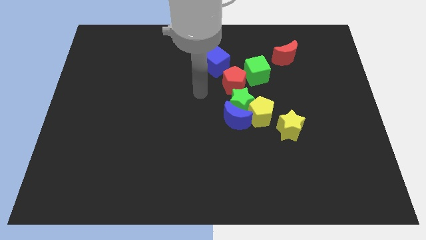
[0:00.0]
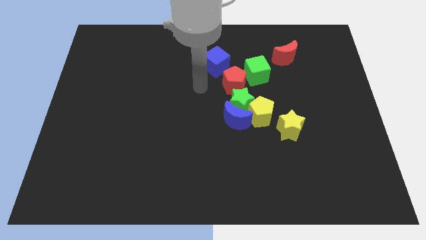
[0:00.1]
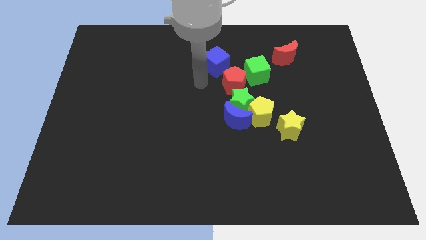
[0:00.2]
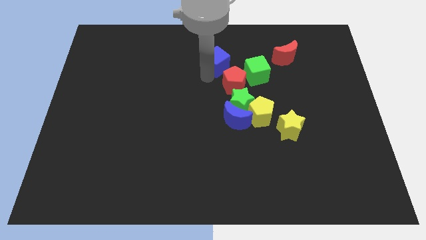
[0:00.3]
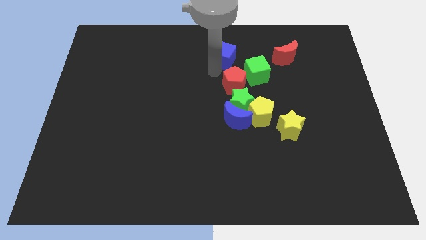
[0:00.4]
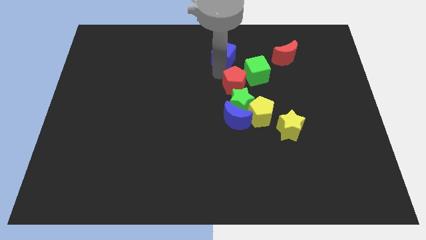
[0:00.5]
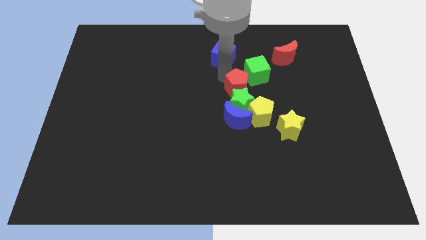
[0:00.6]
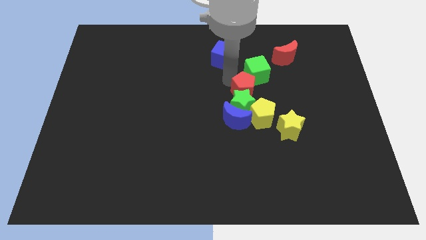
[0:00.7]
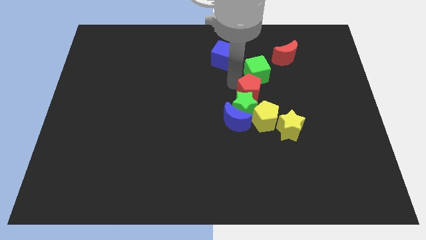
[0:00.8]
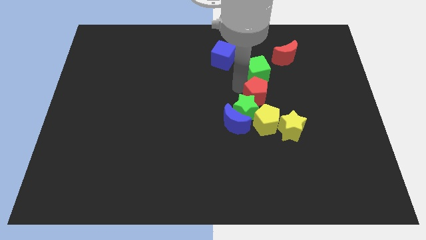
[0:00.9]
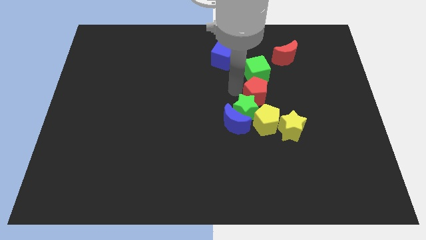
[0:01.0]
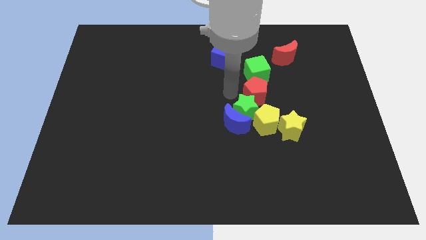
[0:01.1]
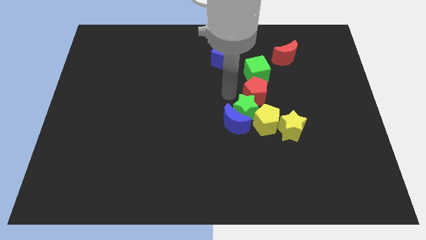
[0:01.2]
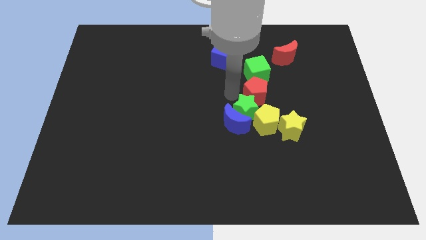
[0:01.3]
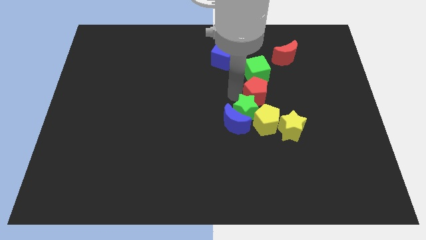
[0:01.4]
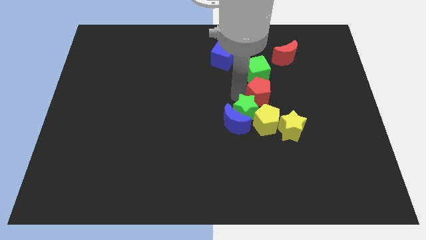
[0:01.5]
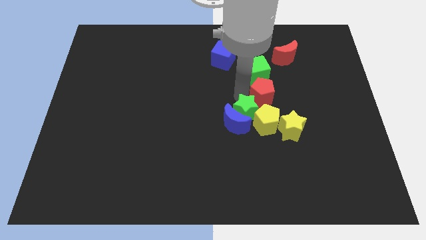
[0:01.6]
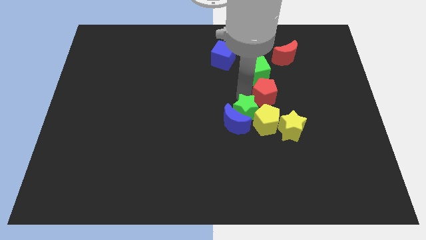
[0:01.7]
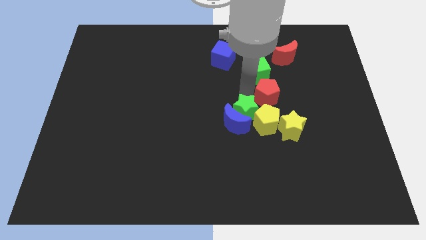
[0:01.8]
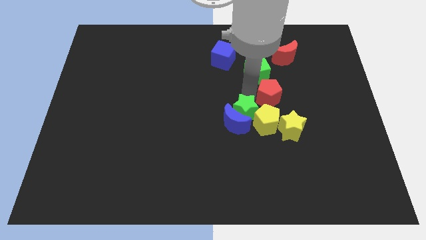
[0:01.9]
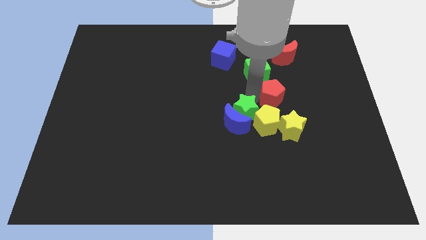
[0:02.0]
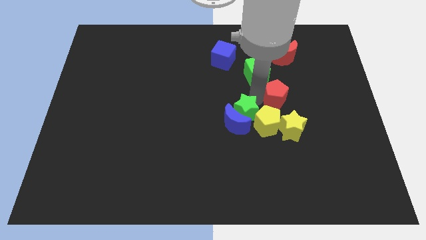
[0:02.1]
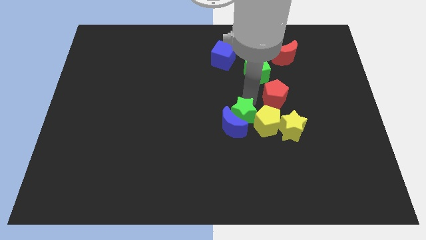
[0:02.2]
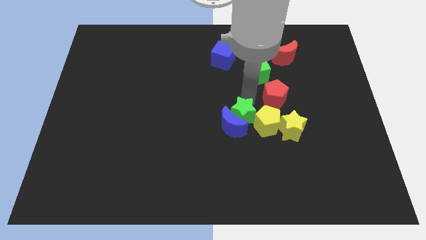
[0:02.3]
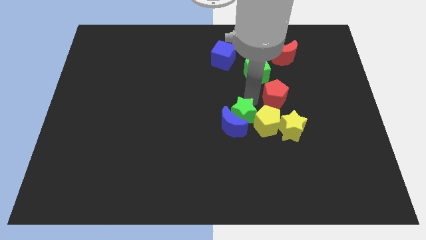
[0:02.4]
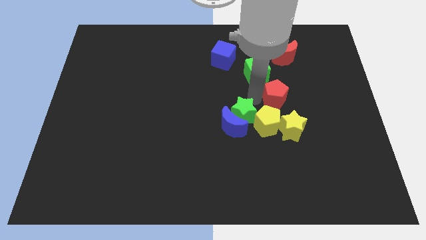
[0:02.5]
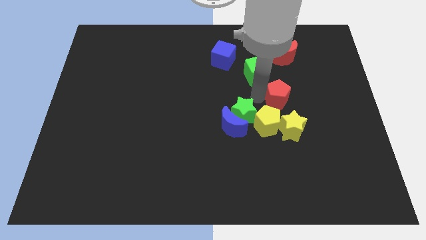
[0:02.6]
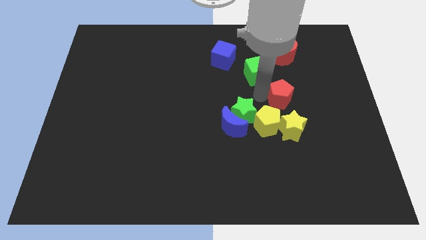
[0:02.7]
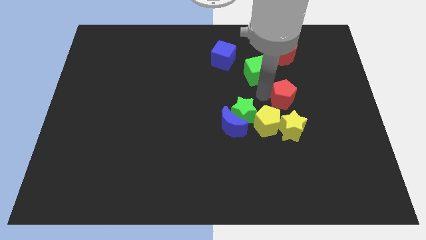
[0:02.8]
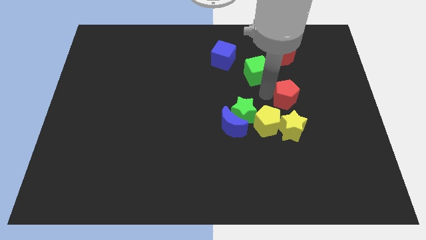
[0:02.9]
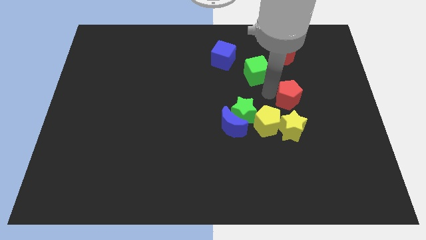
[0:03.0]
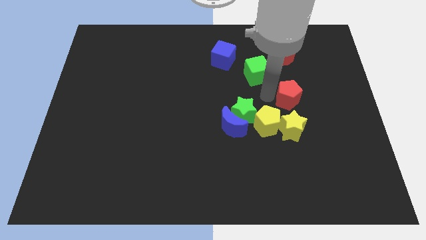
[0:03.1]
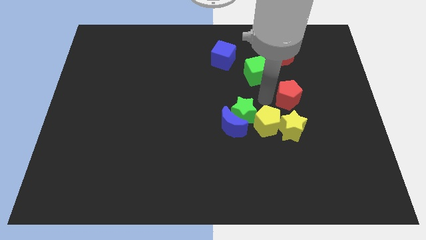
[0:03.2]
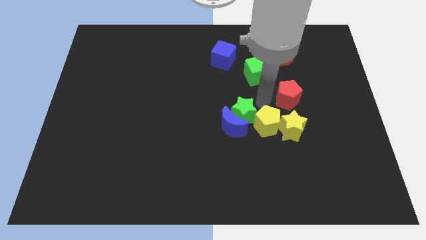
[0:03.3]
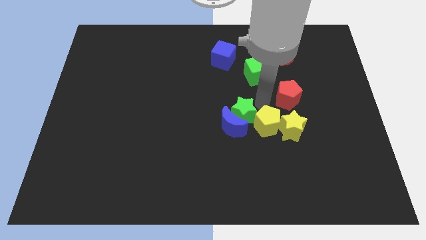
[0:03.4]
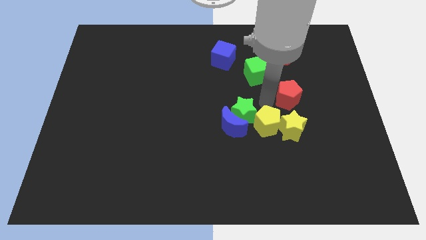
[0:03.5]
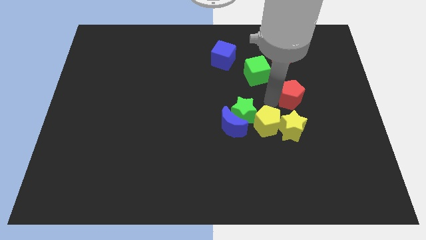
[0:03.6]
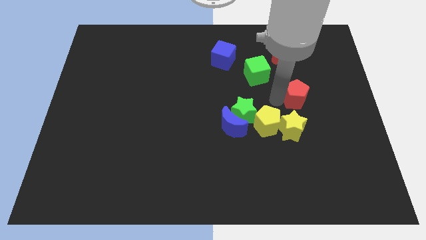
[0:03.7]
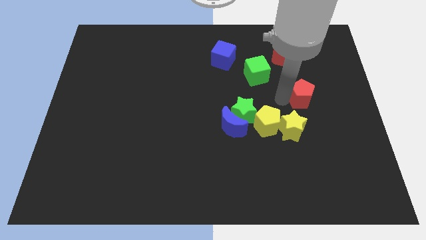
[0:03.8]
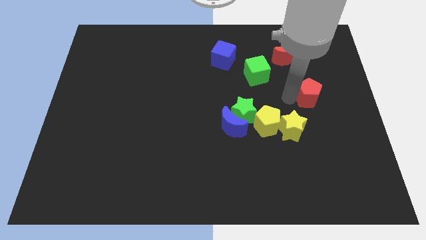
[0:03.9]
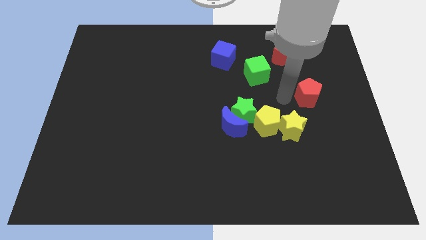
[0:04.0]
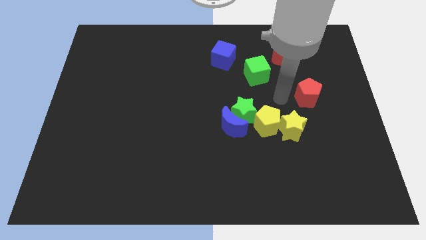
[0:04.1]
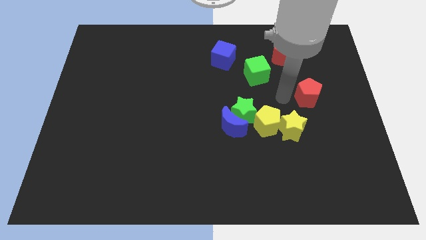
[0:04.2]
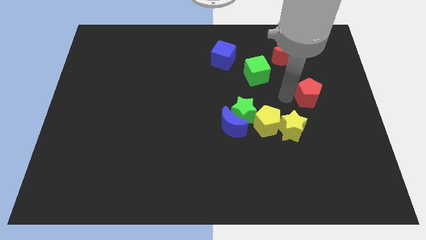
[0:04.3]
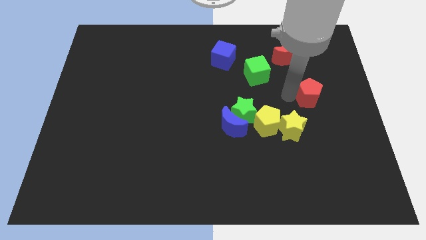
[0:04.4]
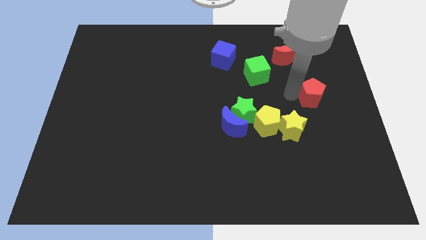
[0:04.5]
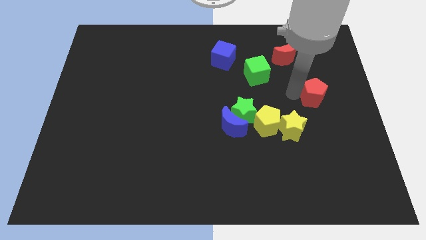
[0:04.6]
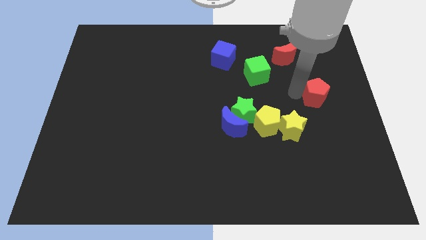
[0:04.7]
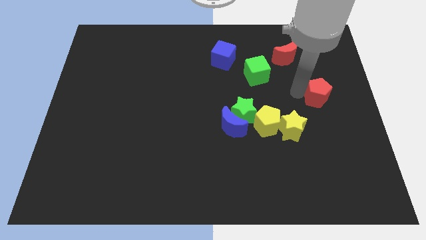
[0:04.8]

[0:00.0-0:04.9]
slide the red pentagon to the center right

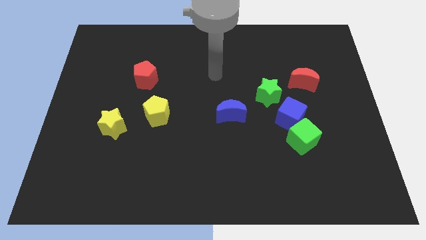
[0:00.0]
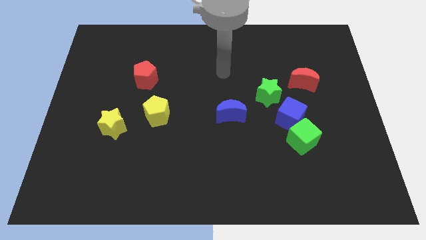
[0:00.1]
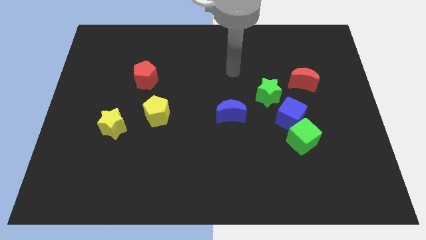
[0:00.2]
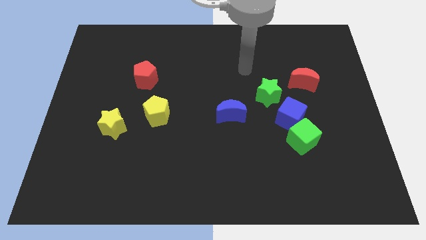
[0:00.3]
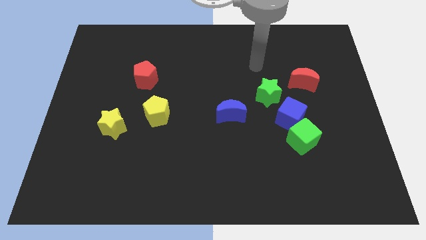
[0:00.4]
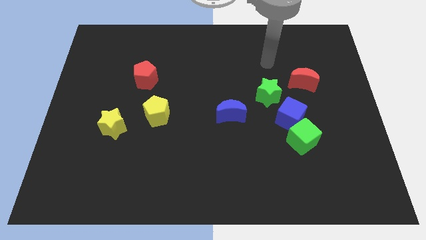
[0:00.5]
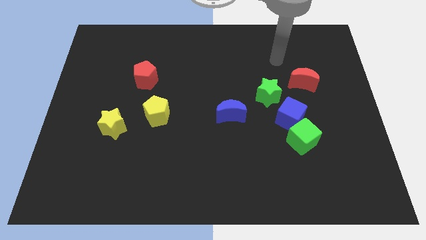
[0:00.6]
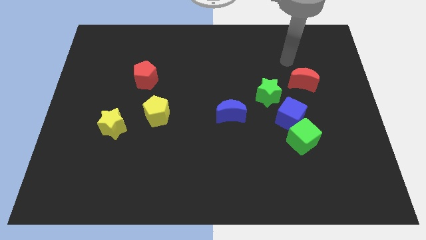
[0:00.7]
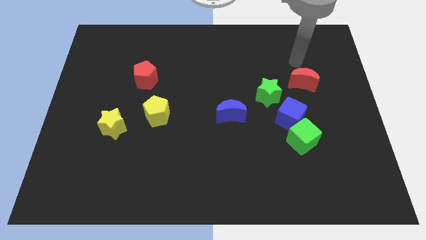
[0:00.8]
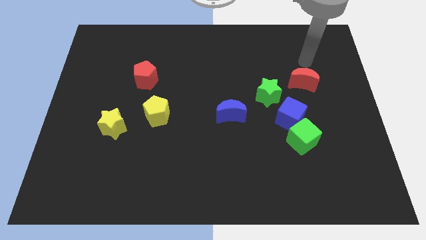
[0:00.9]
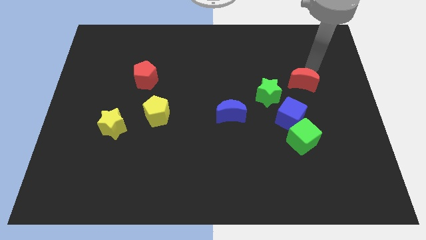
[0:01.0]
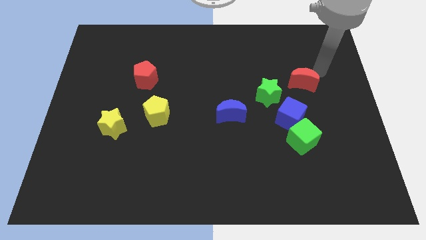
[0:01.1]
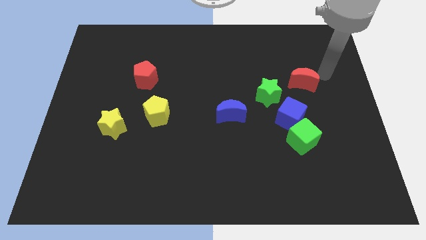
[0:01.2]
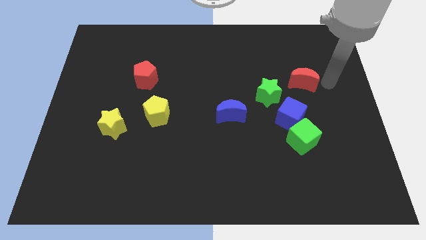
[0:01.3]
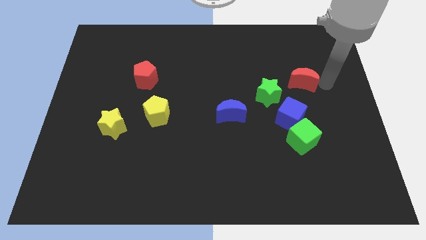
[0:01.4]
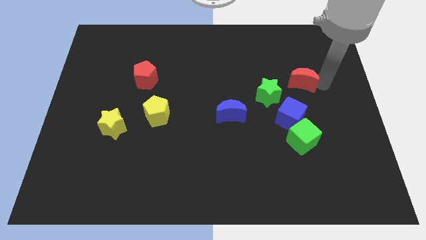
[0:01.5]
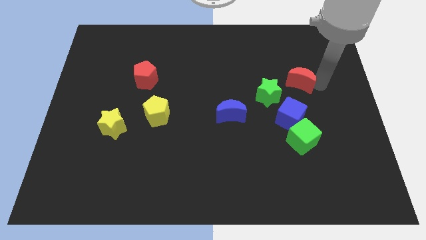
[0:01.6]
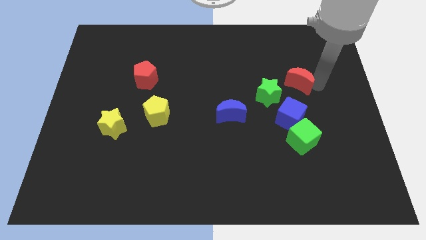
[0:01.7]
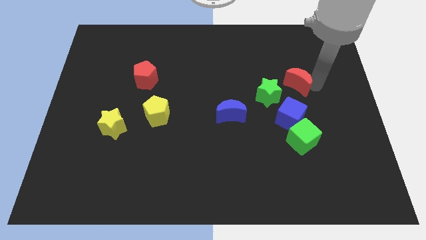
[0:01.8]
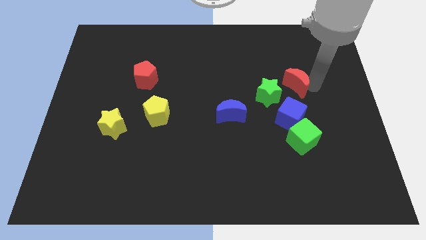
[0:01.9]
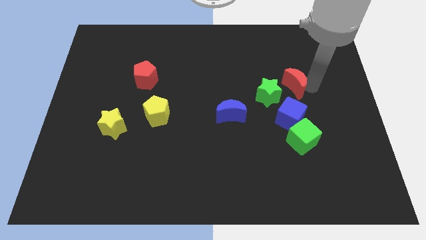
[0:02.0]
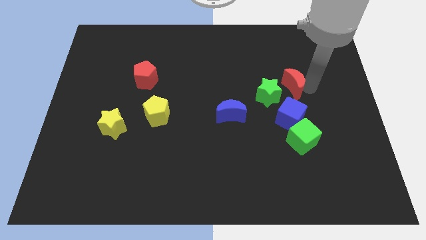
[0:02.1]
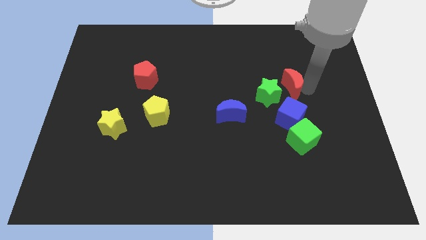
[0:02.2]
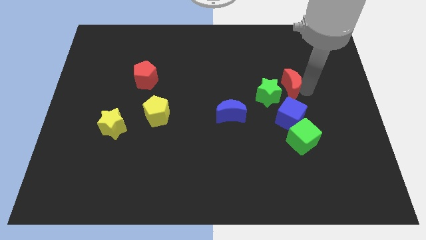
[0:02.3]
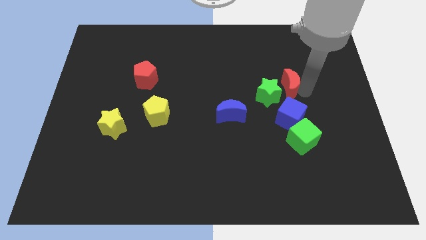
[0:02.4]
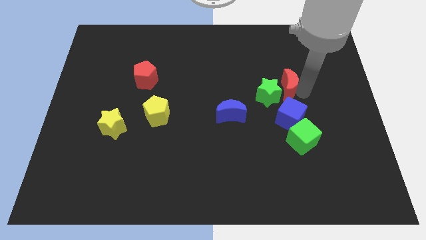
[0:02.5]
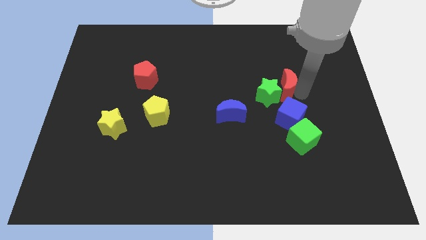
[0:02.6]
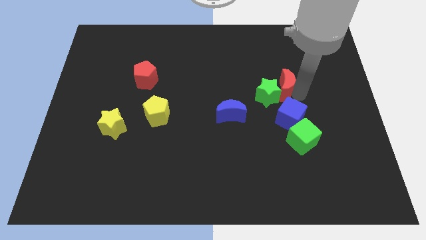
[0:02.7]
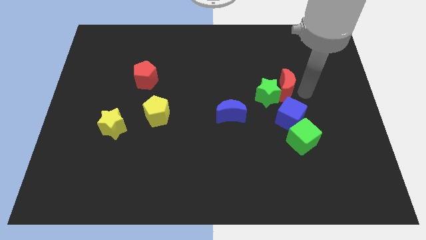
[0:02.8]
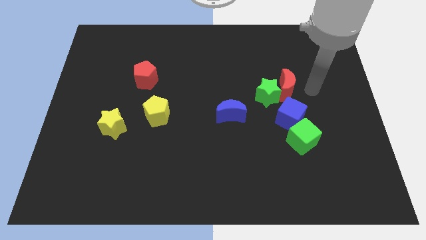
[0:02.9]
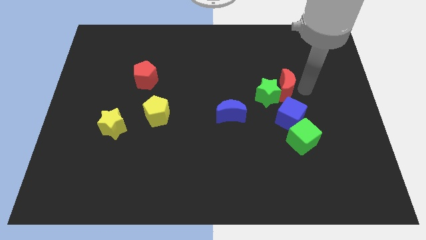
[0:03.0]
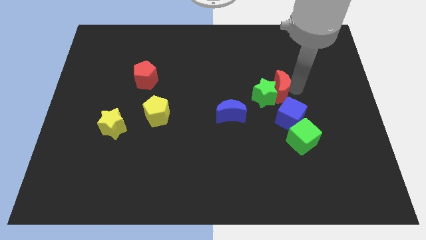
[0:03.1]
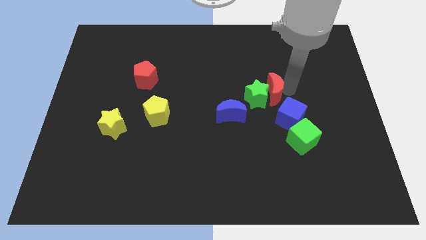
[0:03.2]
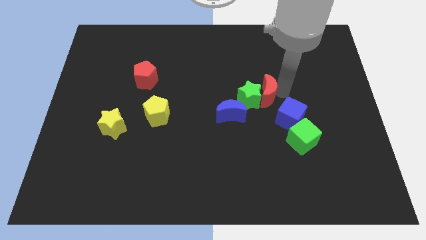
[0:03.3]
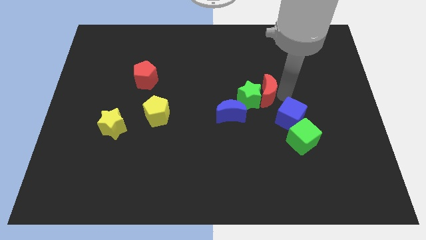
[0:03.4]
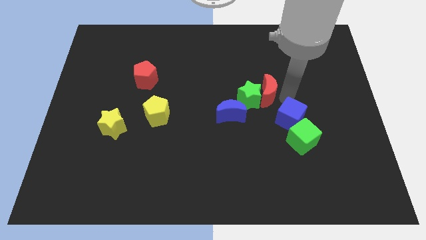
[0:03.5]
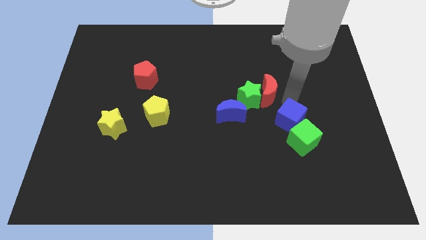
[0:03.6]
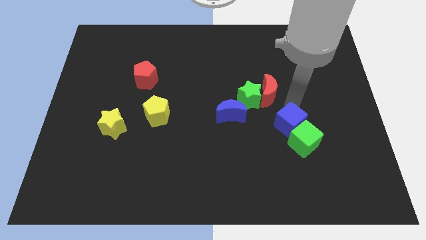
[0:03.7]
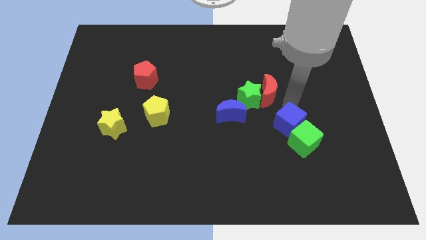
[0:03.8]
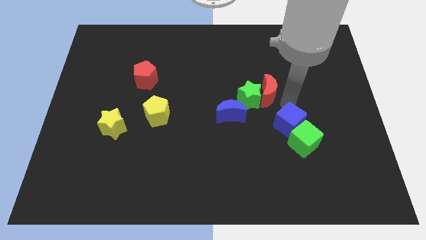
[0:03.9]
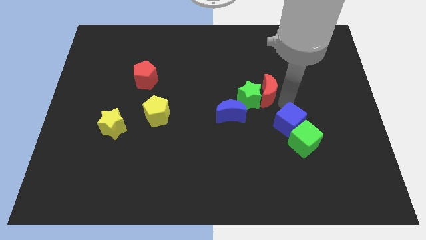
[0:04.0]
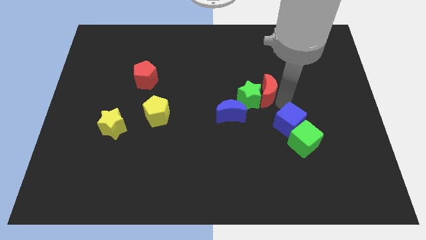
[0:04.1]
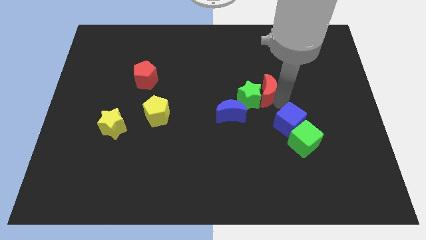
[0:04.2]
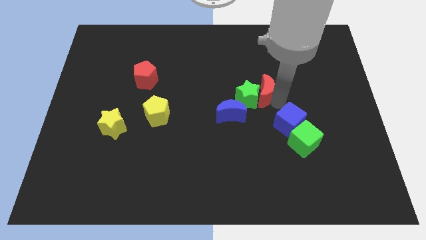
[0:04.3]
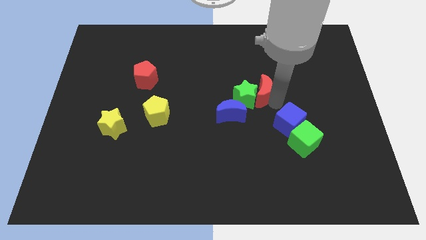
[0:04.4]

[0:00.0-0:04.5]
push the red moon to the center of the board
